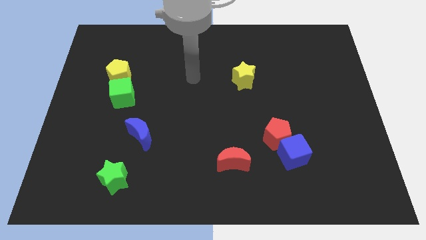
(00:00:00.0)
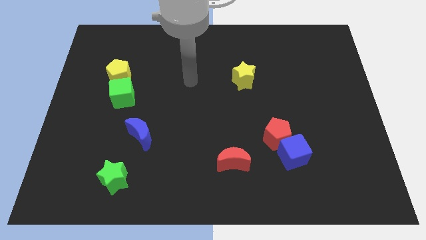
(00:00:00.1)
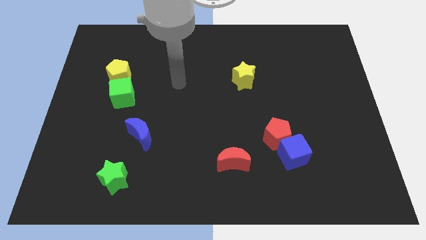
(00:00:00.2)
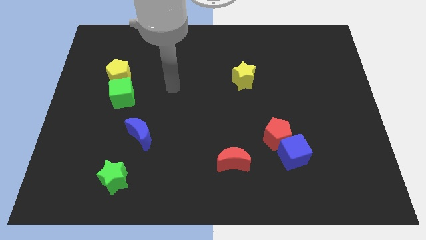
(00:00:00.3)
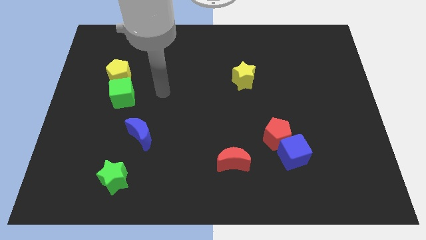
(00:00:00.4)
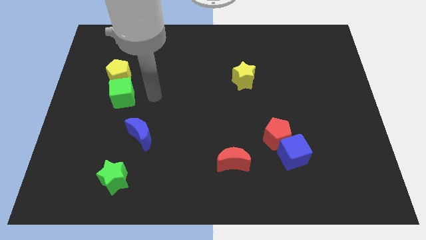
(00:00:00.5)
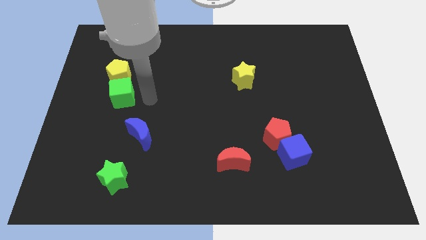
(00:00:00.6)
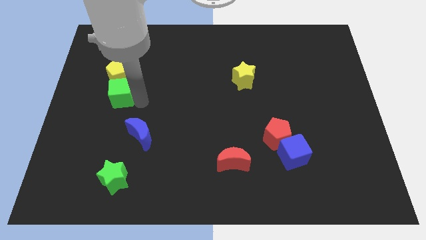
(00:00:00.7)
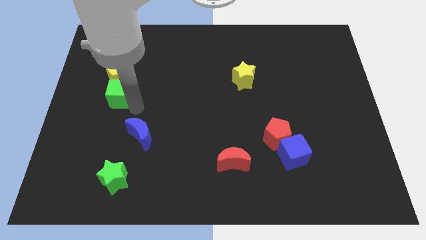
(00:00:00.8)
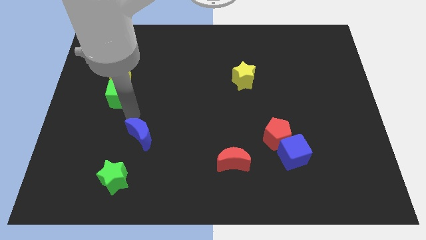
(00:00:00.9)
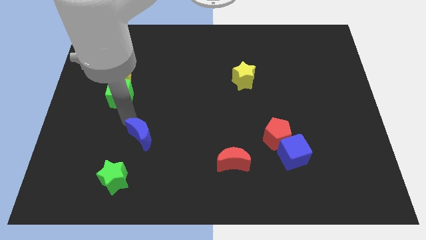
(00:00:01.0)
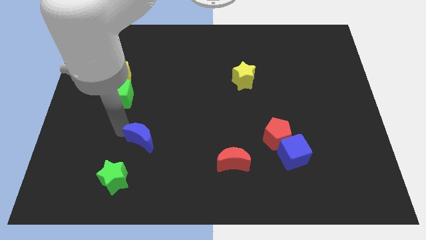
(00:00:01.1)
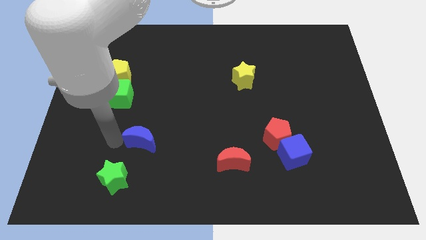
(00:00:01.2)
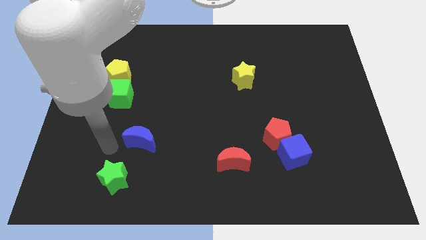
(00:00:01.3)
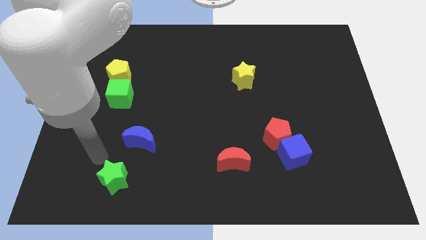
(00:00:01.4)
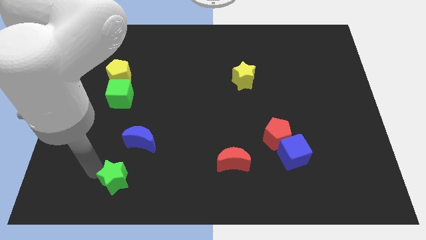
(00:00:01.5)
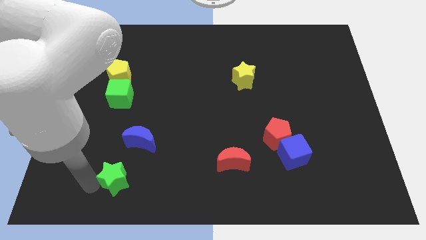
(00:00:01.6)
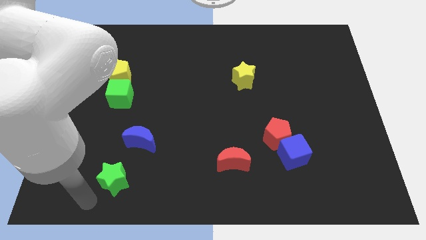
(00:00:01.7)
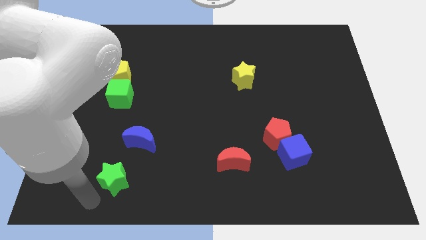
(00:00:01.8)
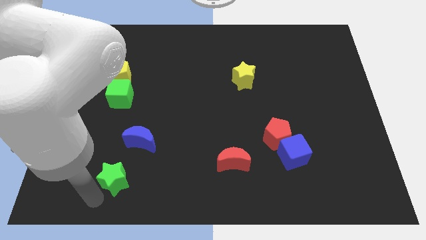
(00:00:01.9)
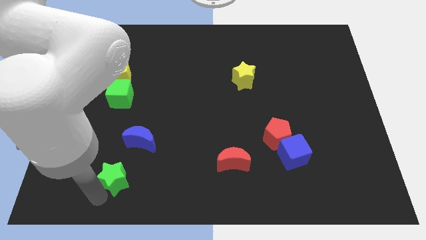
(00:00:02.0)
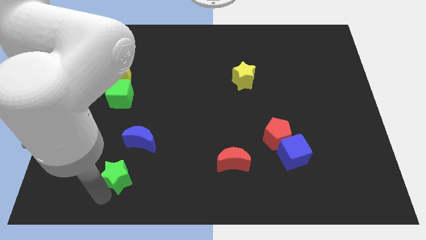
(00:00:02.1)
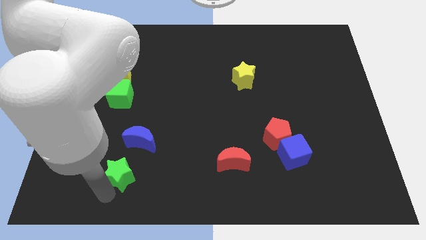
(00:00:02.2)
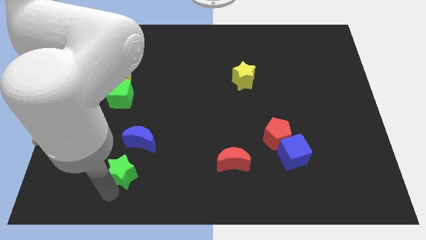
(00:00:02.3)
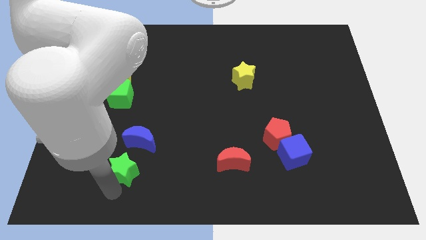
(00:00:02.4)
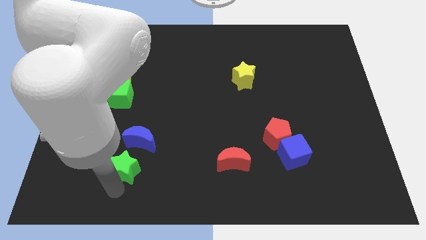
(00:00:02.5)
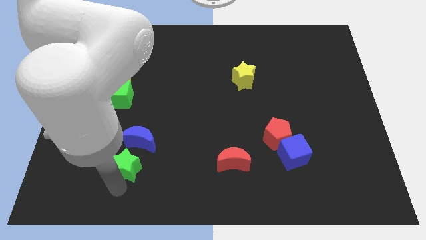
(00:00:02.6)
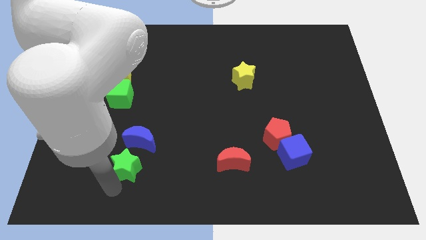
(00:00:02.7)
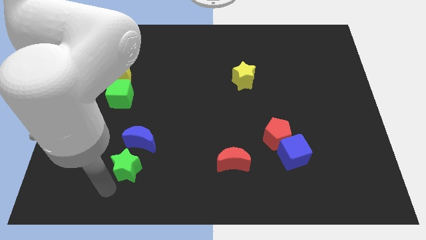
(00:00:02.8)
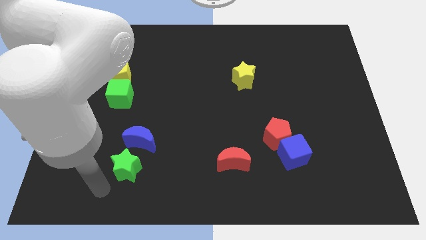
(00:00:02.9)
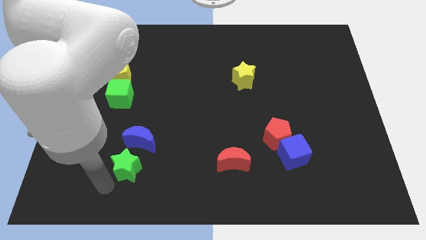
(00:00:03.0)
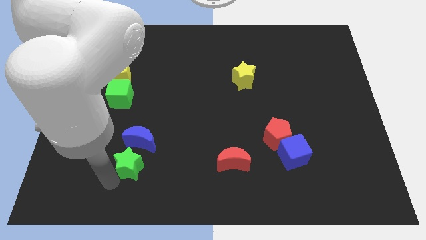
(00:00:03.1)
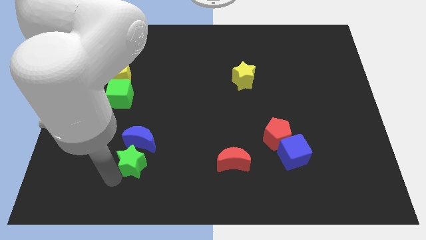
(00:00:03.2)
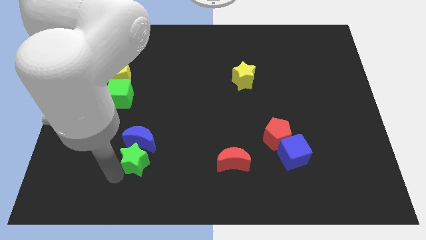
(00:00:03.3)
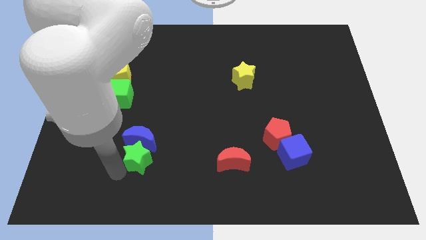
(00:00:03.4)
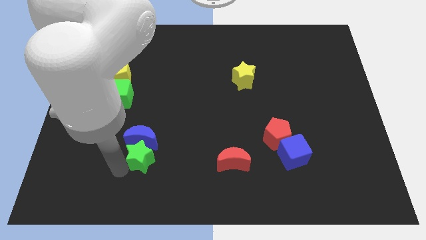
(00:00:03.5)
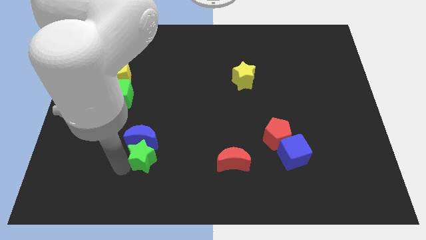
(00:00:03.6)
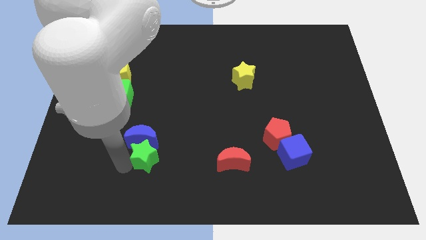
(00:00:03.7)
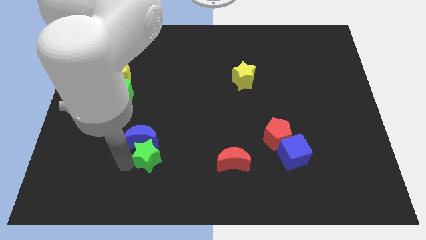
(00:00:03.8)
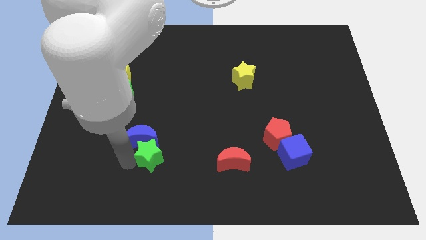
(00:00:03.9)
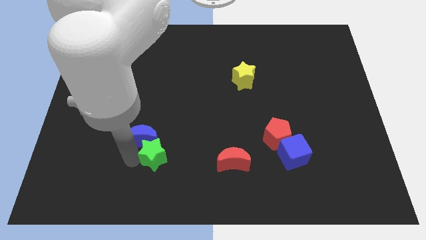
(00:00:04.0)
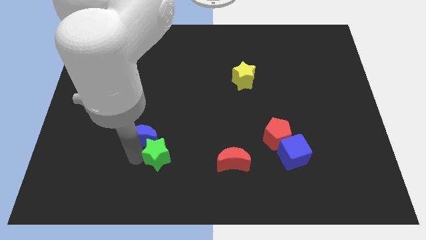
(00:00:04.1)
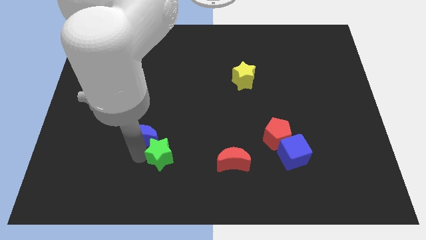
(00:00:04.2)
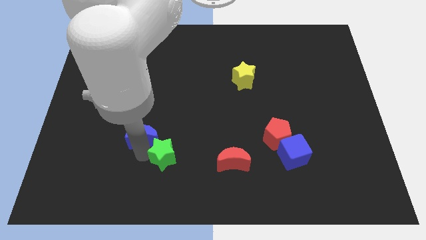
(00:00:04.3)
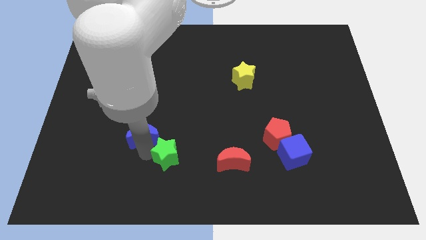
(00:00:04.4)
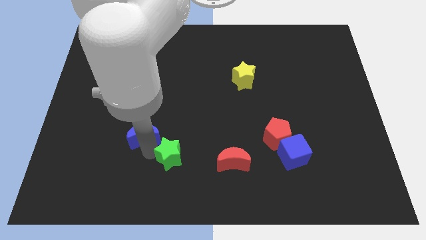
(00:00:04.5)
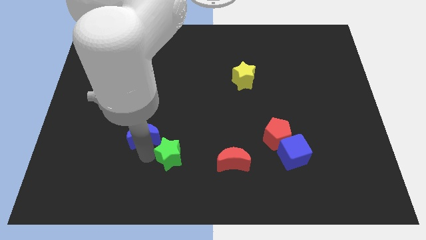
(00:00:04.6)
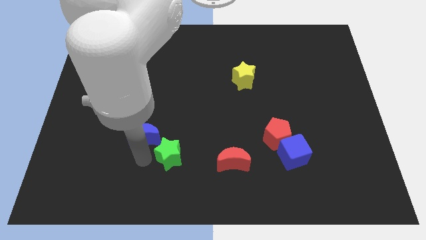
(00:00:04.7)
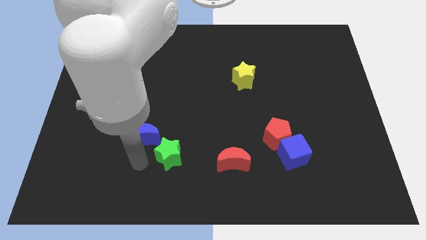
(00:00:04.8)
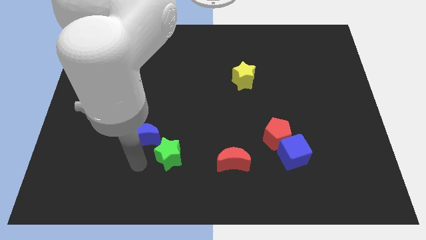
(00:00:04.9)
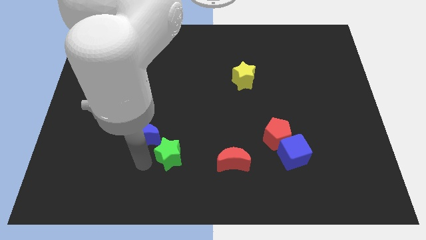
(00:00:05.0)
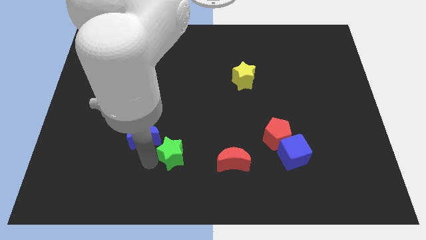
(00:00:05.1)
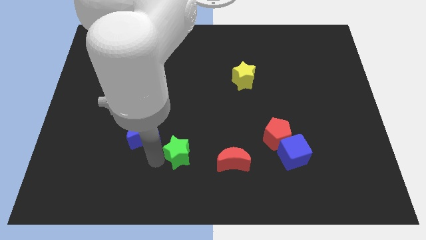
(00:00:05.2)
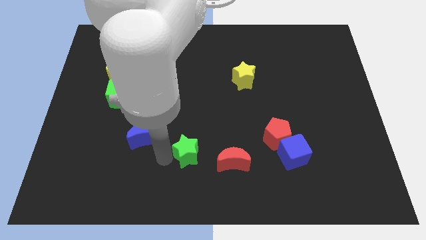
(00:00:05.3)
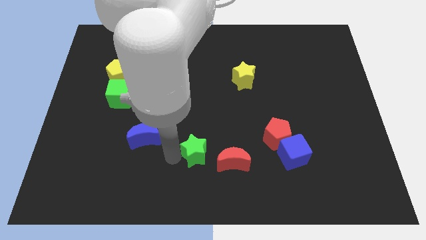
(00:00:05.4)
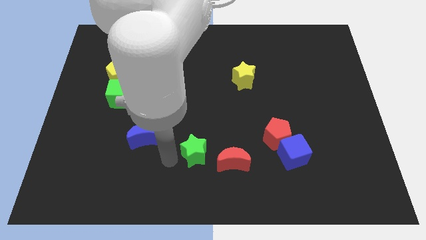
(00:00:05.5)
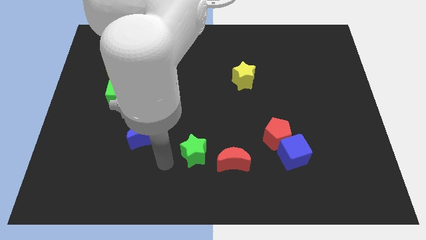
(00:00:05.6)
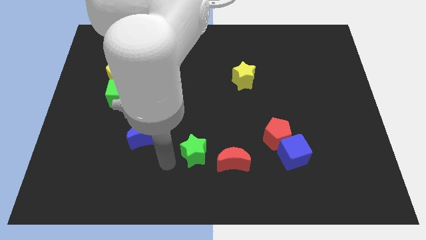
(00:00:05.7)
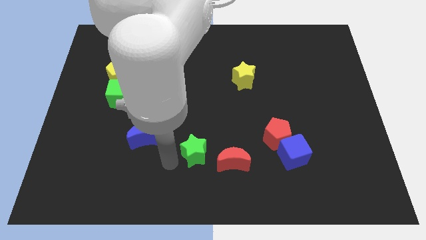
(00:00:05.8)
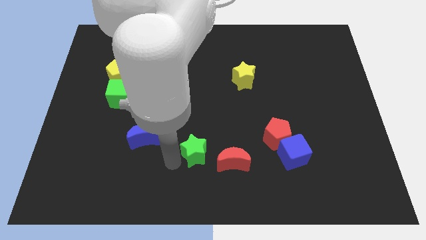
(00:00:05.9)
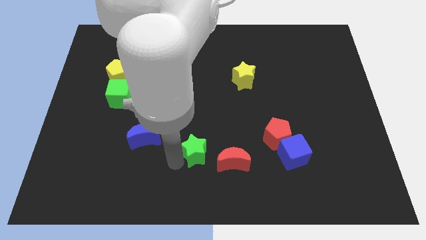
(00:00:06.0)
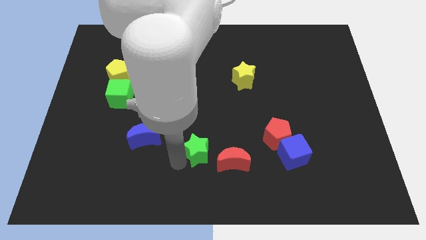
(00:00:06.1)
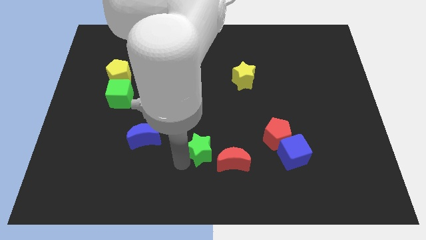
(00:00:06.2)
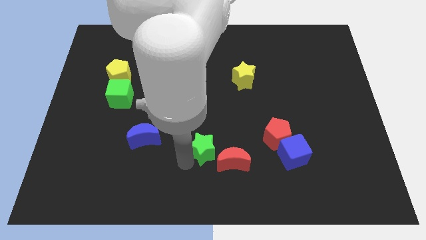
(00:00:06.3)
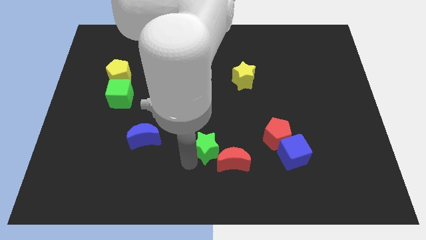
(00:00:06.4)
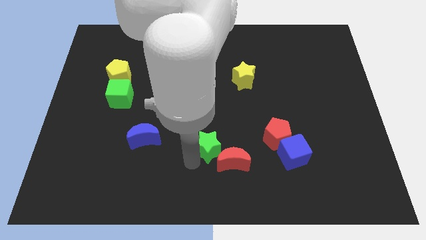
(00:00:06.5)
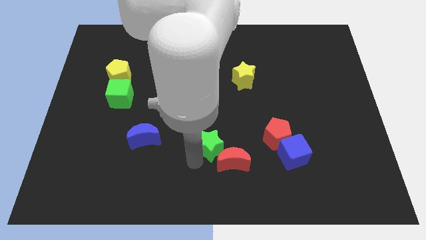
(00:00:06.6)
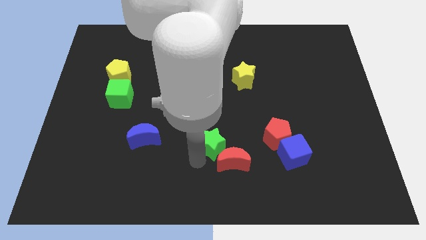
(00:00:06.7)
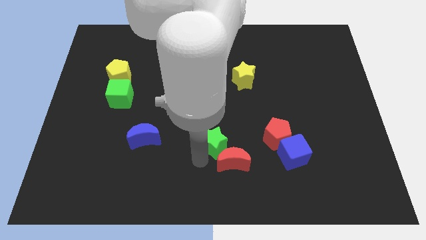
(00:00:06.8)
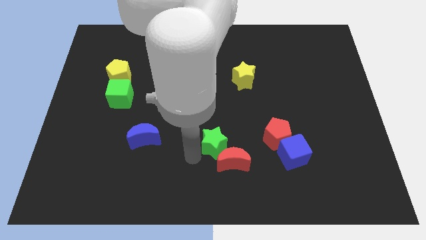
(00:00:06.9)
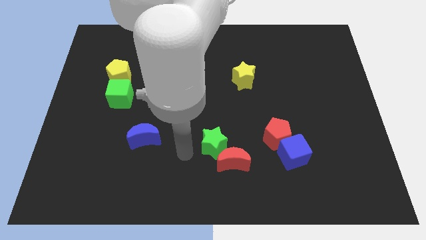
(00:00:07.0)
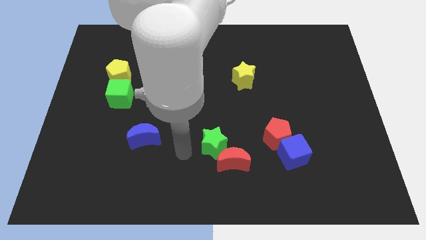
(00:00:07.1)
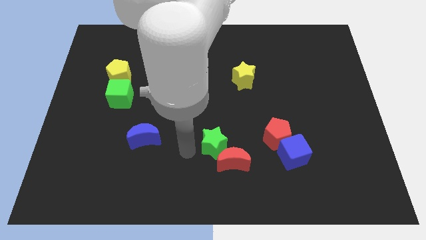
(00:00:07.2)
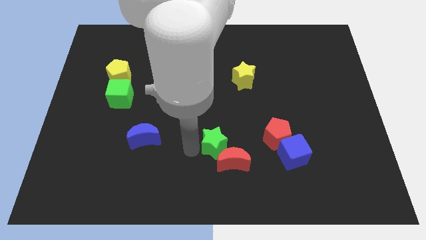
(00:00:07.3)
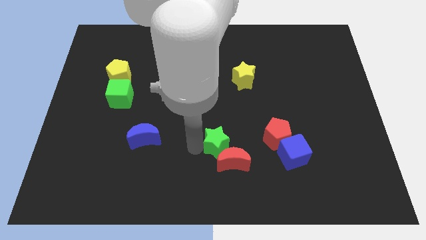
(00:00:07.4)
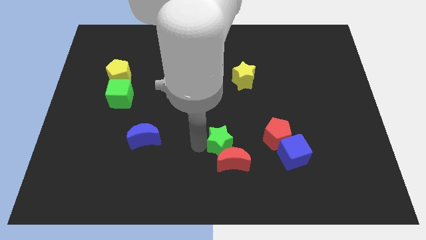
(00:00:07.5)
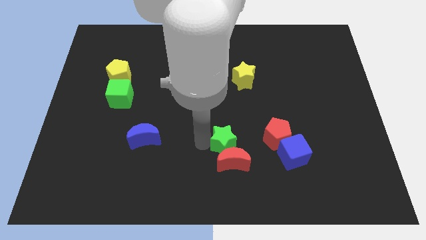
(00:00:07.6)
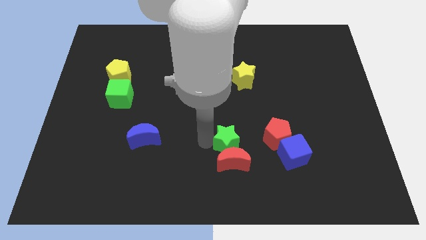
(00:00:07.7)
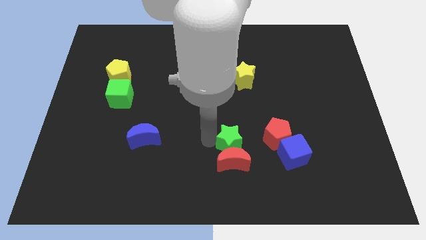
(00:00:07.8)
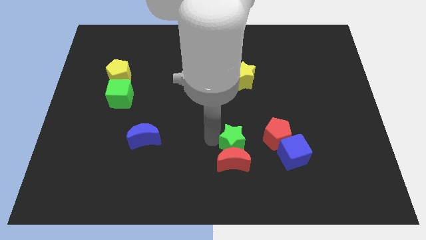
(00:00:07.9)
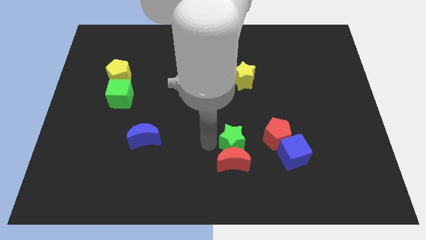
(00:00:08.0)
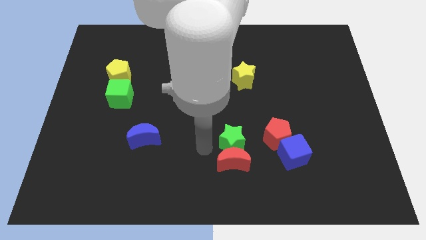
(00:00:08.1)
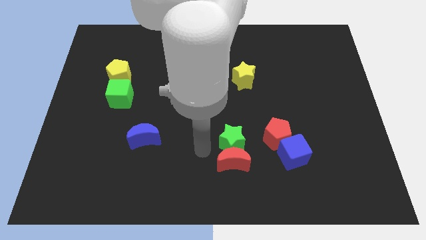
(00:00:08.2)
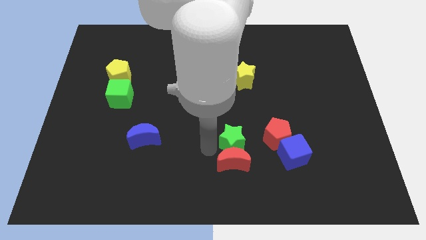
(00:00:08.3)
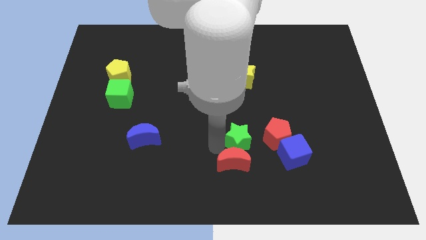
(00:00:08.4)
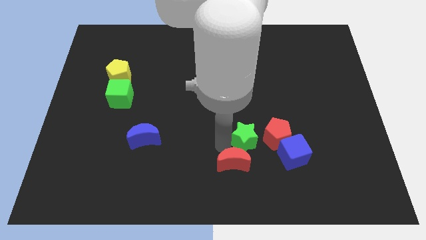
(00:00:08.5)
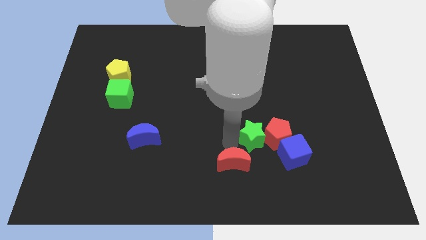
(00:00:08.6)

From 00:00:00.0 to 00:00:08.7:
slide the green star towards the red pentagon
